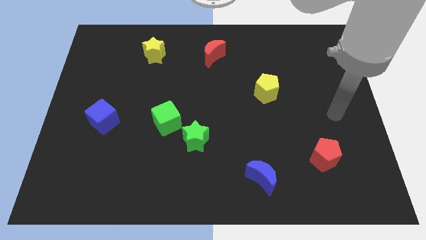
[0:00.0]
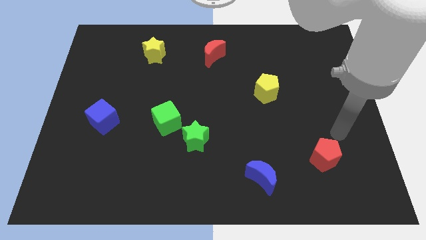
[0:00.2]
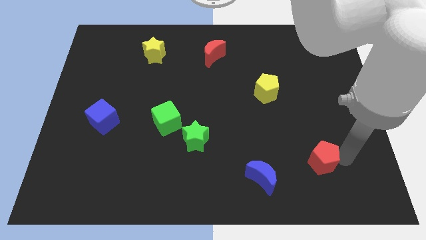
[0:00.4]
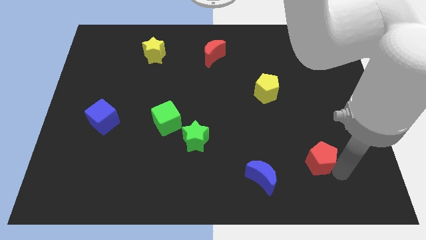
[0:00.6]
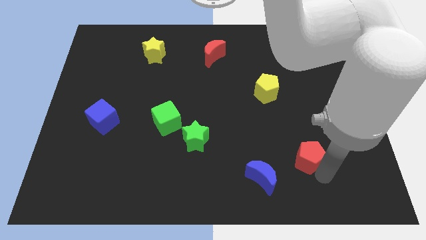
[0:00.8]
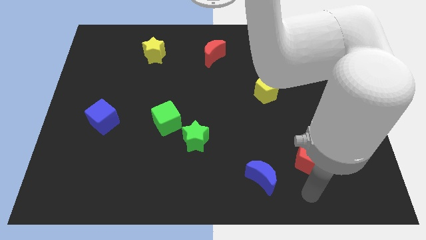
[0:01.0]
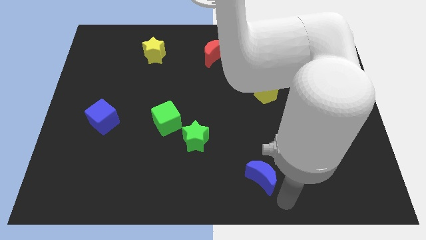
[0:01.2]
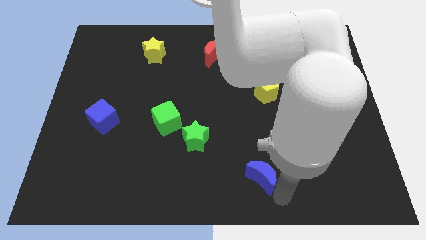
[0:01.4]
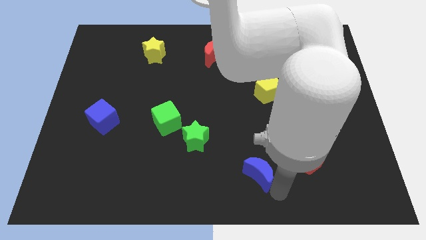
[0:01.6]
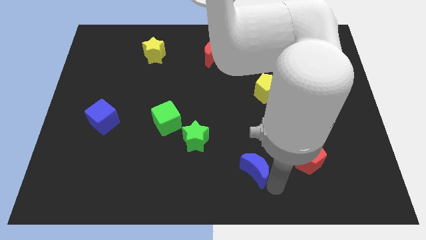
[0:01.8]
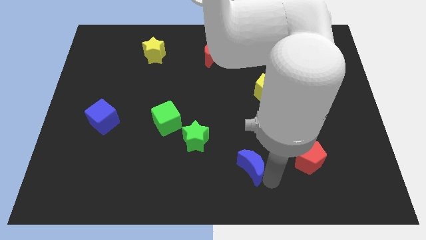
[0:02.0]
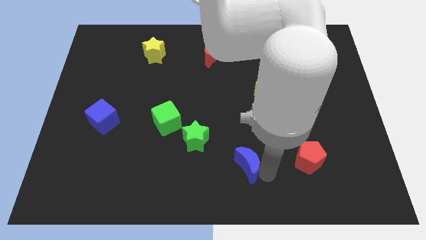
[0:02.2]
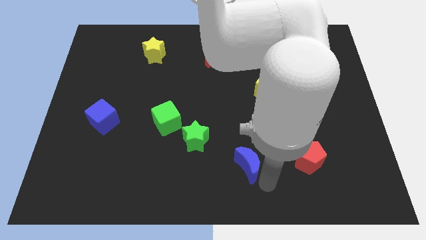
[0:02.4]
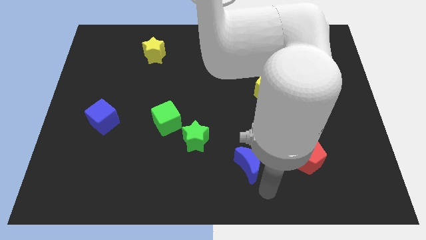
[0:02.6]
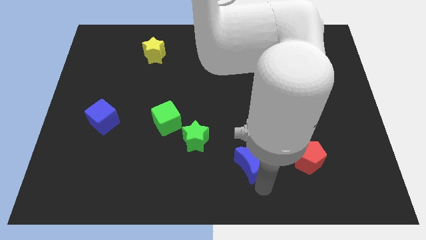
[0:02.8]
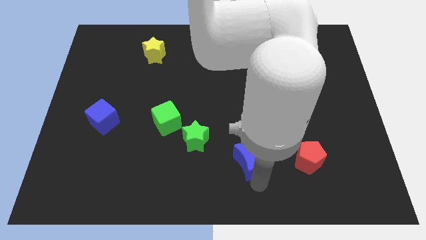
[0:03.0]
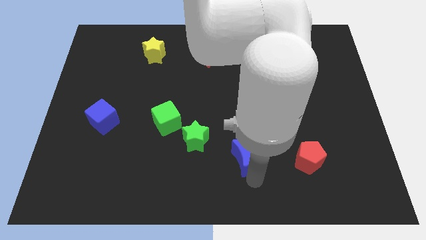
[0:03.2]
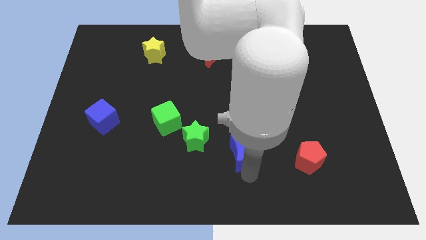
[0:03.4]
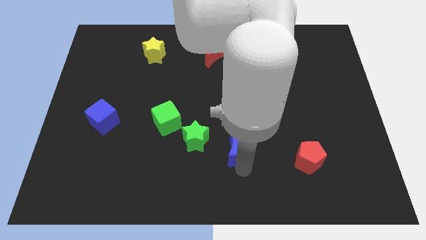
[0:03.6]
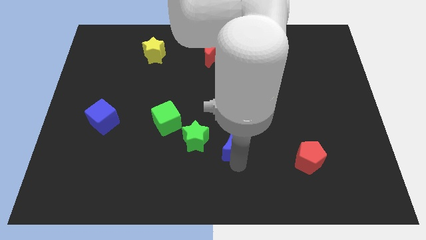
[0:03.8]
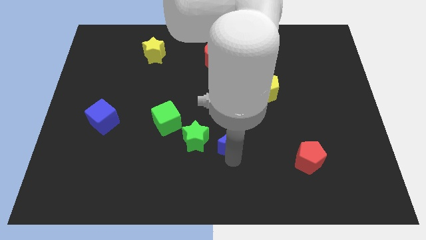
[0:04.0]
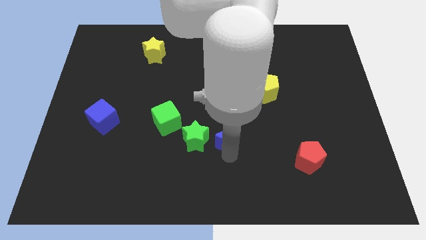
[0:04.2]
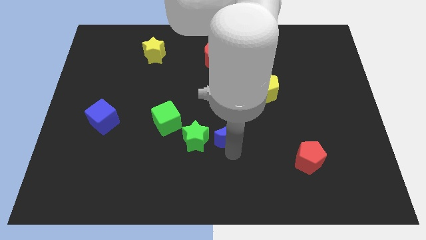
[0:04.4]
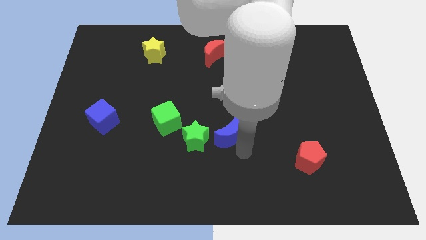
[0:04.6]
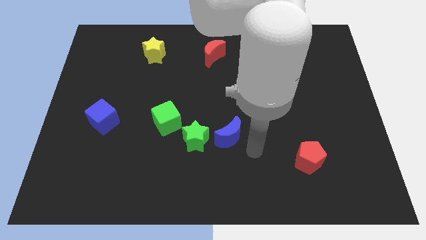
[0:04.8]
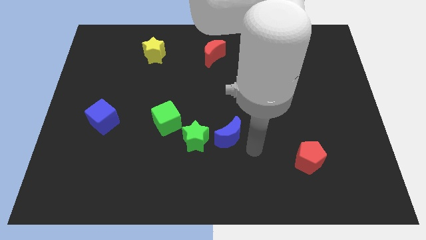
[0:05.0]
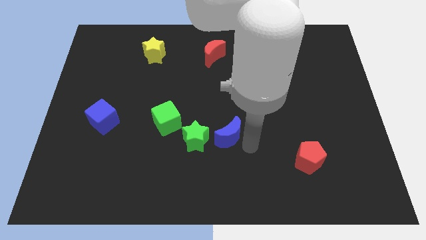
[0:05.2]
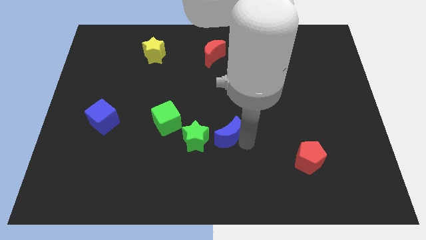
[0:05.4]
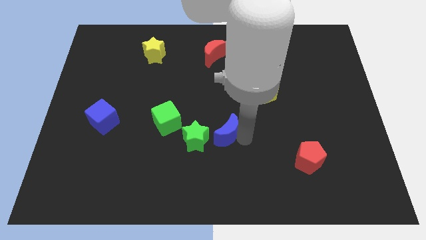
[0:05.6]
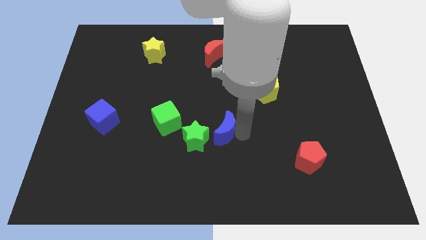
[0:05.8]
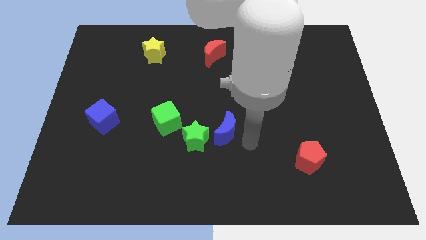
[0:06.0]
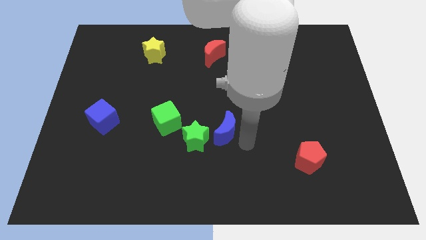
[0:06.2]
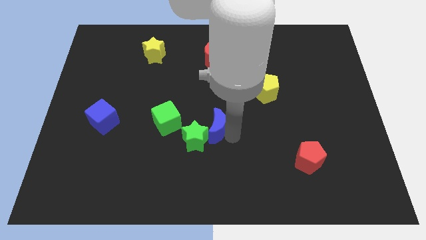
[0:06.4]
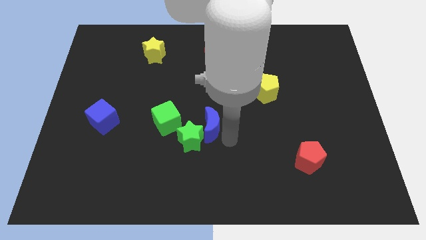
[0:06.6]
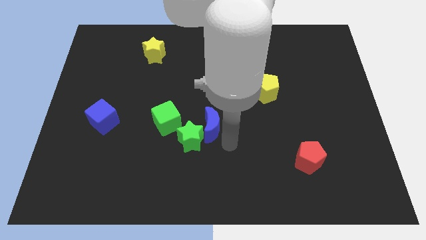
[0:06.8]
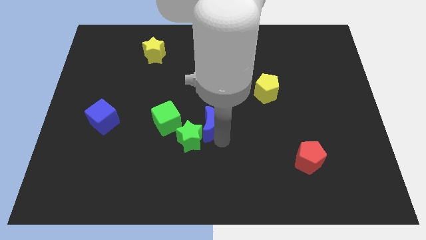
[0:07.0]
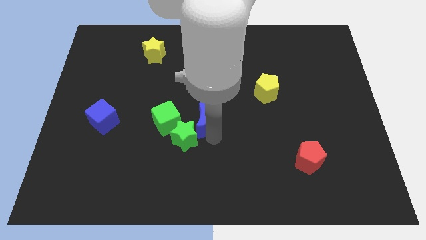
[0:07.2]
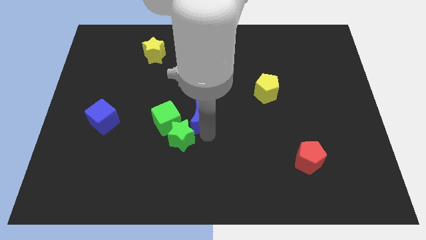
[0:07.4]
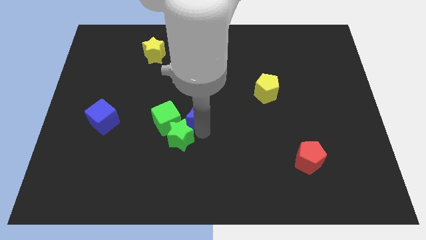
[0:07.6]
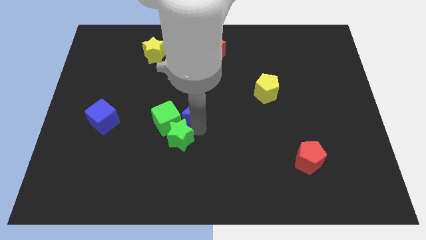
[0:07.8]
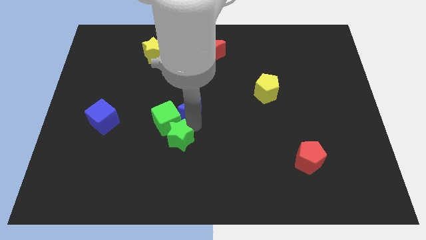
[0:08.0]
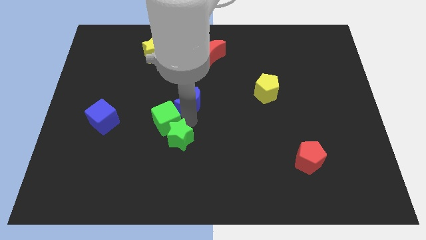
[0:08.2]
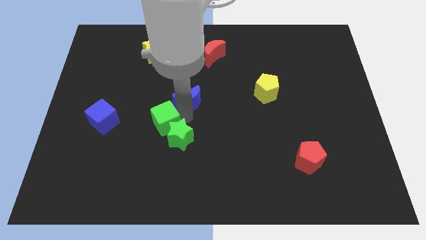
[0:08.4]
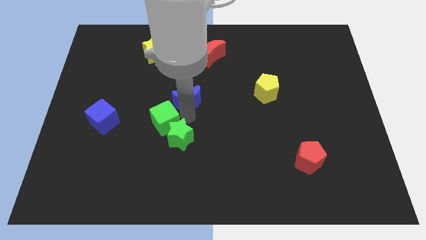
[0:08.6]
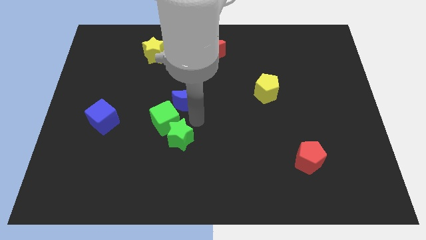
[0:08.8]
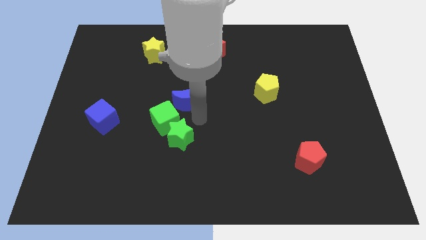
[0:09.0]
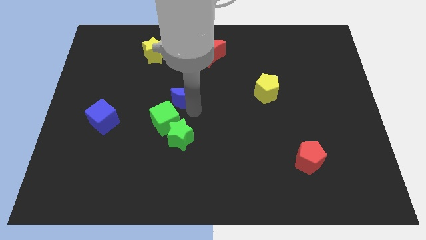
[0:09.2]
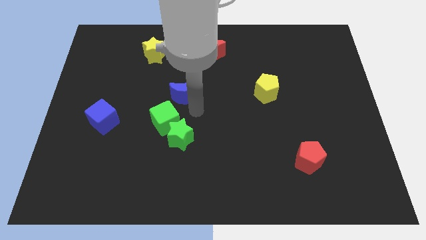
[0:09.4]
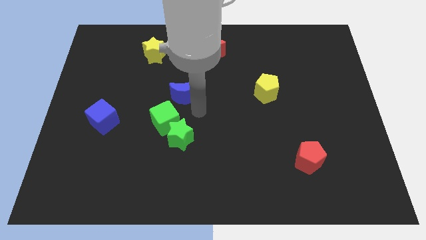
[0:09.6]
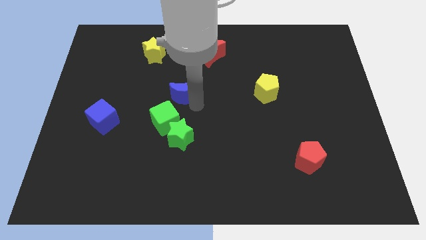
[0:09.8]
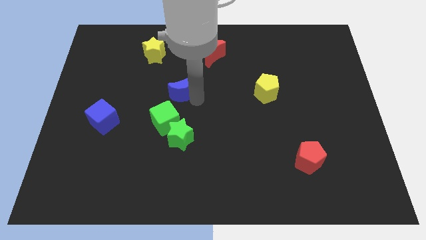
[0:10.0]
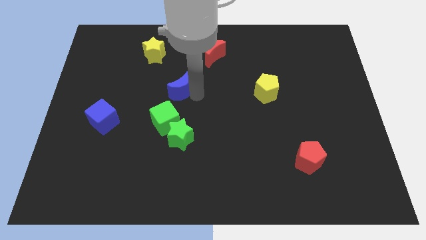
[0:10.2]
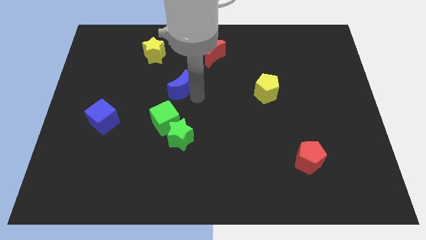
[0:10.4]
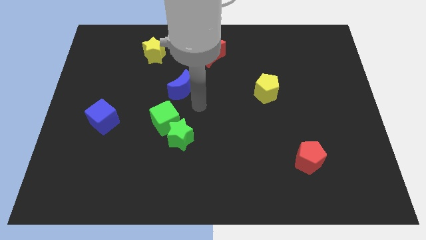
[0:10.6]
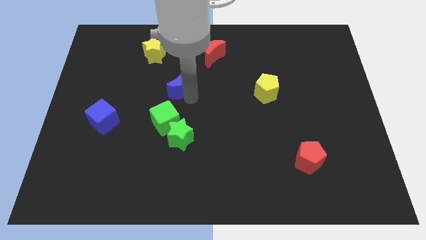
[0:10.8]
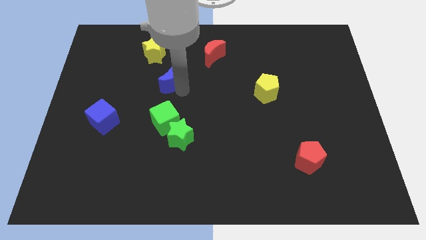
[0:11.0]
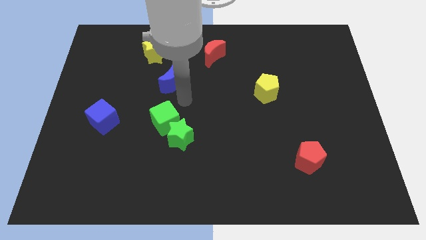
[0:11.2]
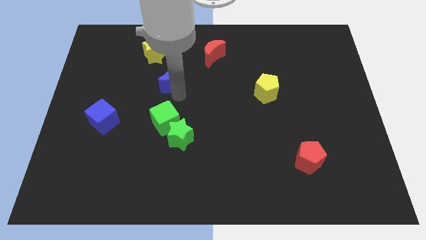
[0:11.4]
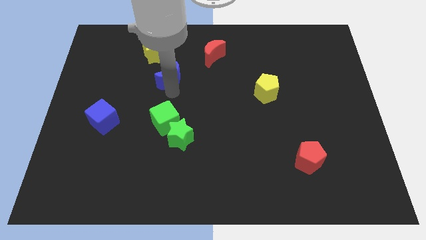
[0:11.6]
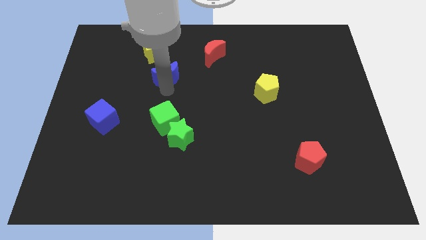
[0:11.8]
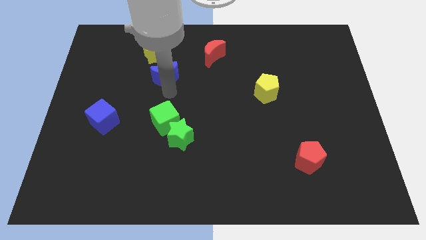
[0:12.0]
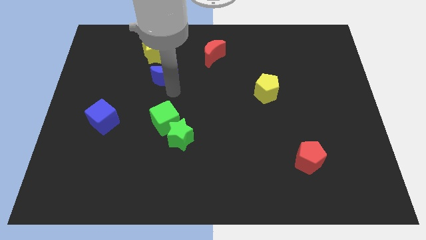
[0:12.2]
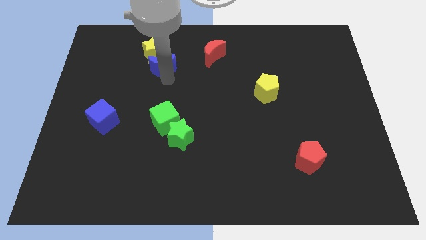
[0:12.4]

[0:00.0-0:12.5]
push the blue moon to the yellow star
